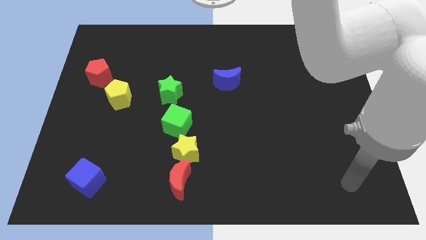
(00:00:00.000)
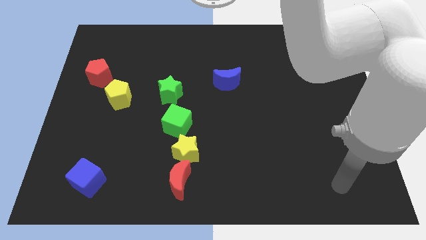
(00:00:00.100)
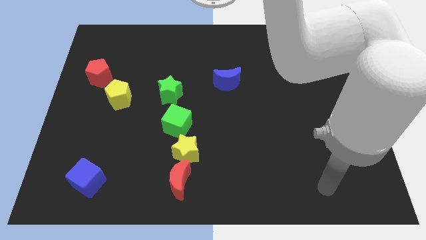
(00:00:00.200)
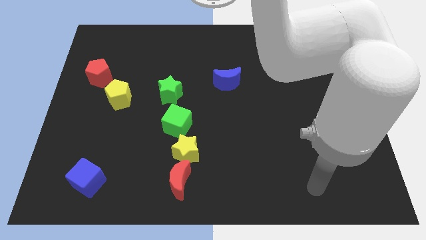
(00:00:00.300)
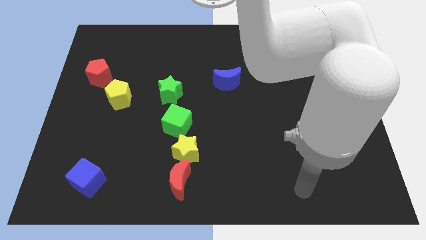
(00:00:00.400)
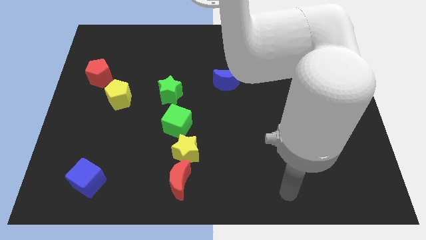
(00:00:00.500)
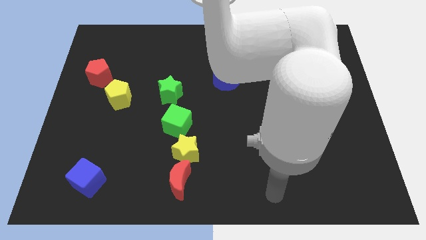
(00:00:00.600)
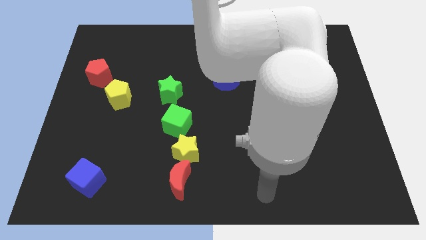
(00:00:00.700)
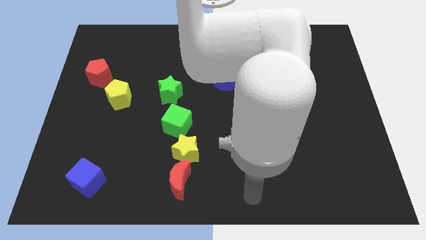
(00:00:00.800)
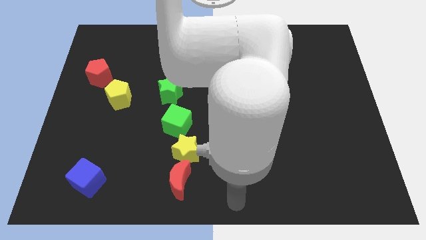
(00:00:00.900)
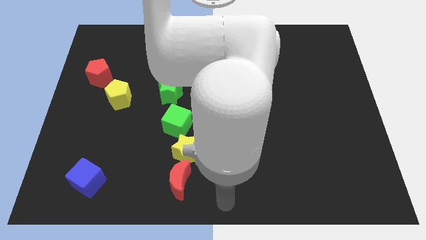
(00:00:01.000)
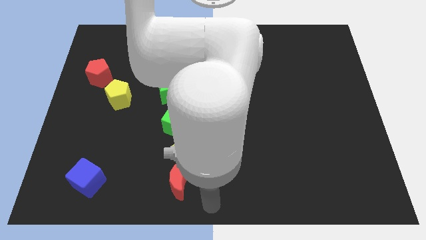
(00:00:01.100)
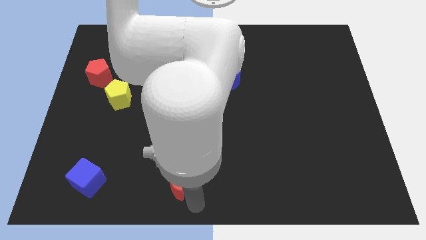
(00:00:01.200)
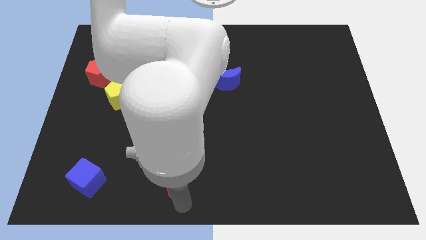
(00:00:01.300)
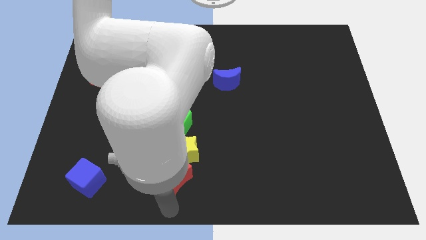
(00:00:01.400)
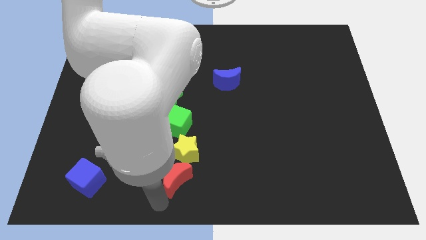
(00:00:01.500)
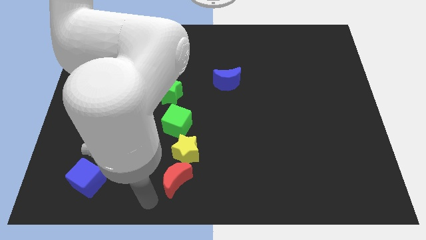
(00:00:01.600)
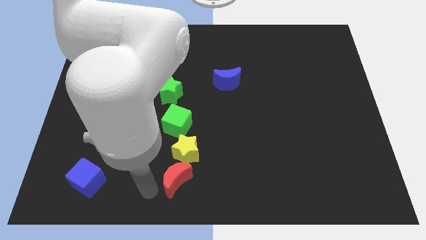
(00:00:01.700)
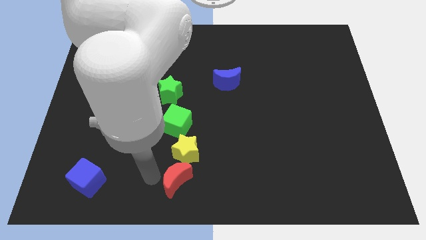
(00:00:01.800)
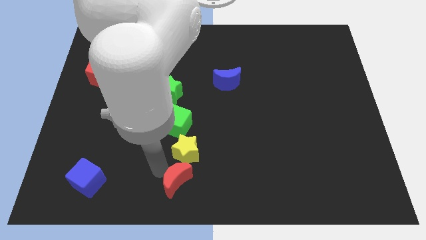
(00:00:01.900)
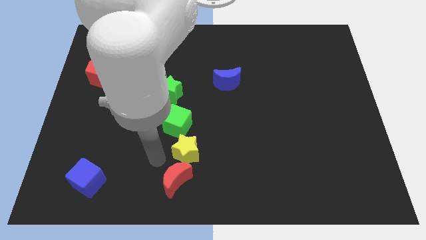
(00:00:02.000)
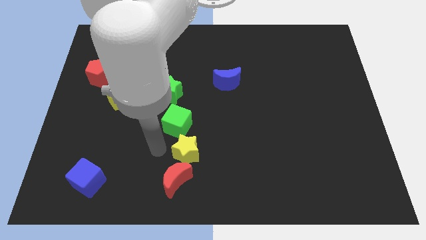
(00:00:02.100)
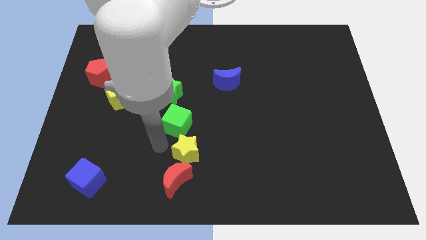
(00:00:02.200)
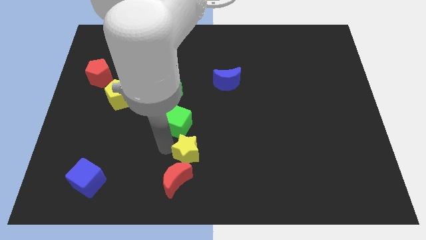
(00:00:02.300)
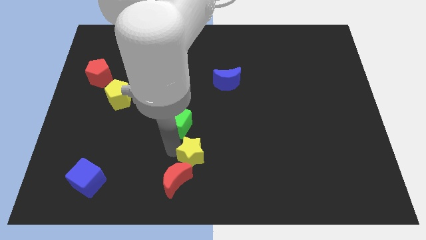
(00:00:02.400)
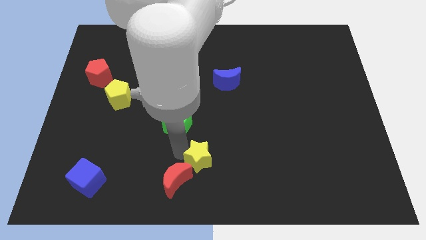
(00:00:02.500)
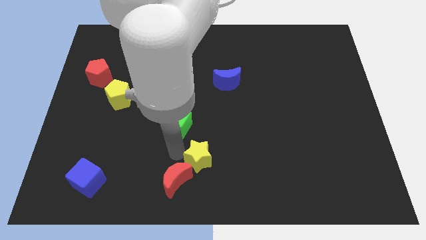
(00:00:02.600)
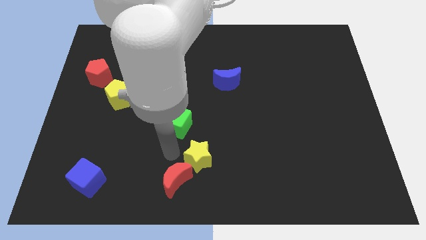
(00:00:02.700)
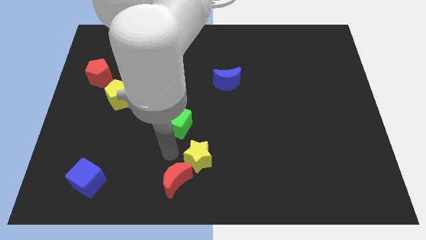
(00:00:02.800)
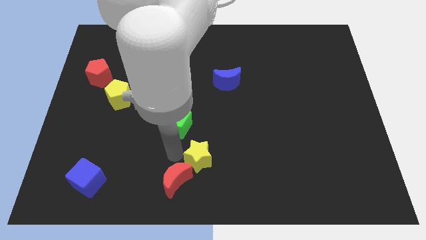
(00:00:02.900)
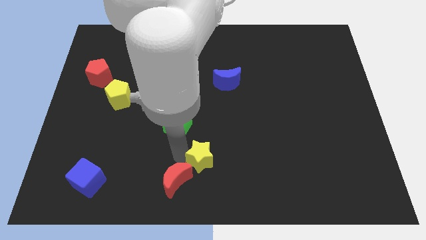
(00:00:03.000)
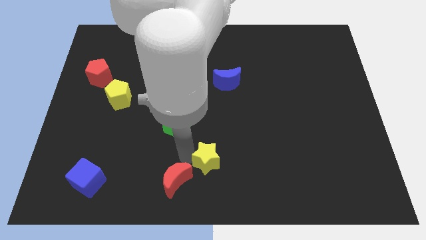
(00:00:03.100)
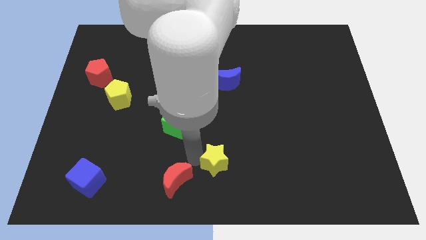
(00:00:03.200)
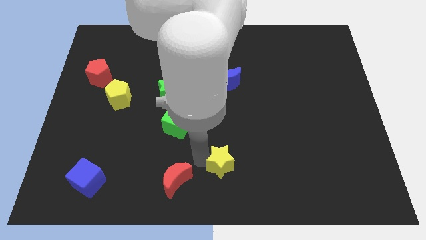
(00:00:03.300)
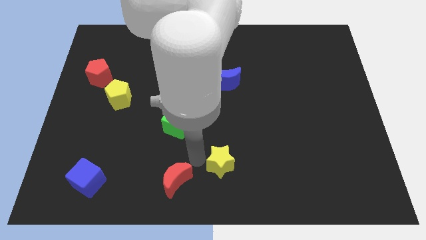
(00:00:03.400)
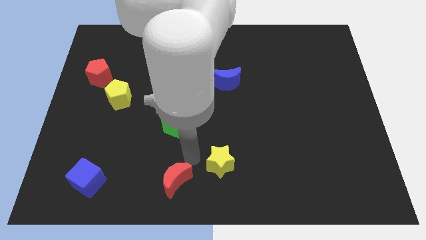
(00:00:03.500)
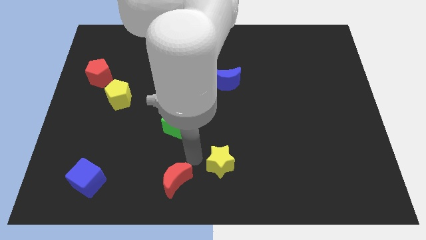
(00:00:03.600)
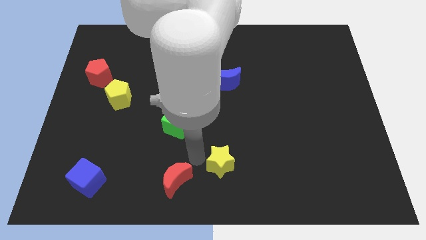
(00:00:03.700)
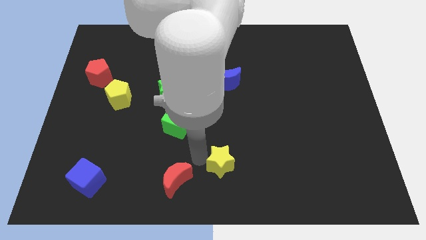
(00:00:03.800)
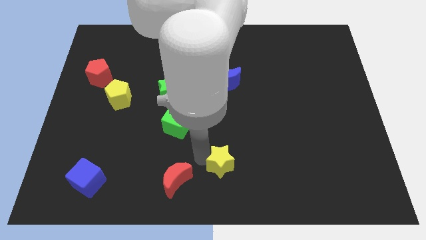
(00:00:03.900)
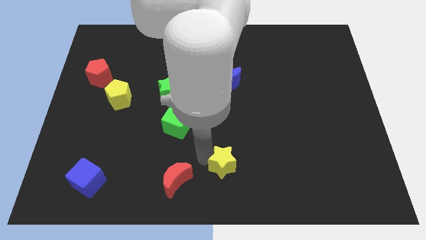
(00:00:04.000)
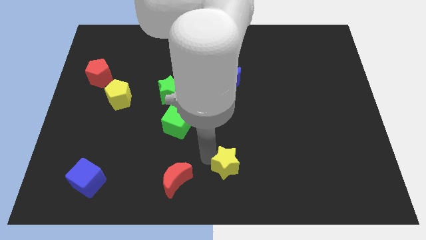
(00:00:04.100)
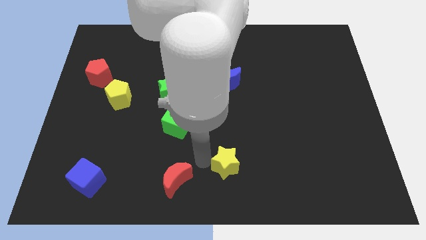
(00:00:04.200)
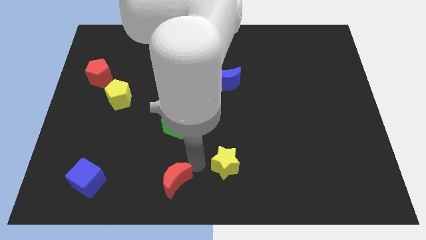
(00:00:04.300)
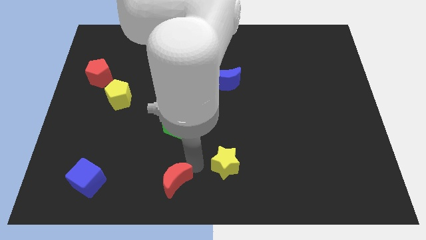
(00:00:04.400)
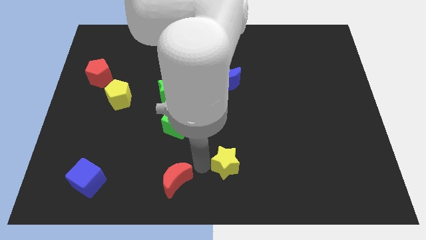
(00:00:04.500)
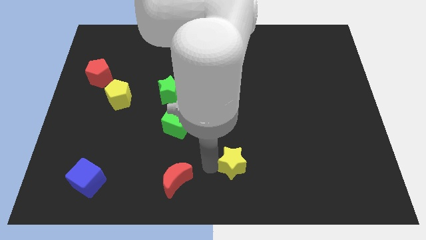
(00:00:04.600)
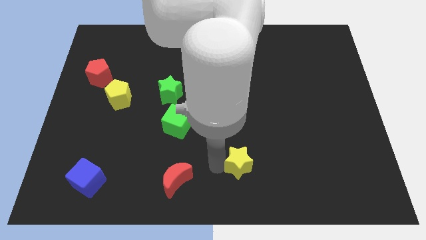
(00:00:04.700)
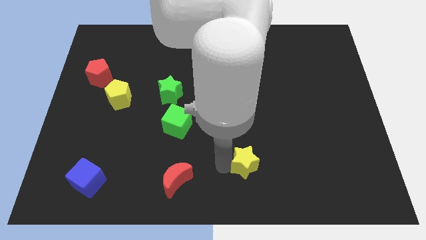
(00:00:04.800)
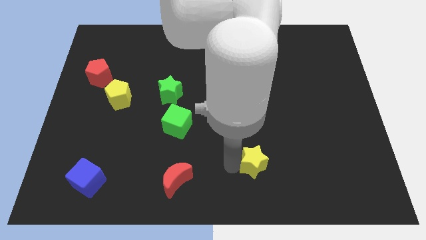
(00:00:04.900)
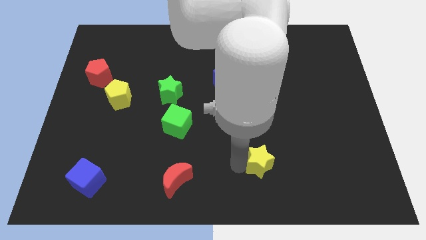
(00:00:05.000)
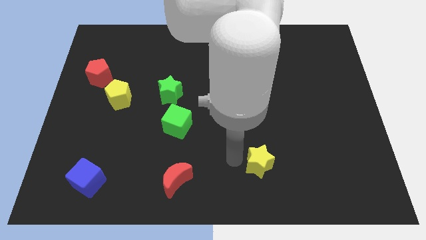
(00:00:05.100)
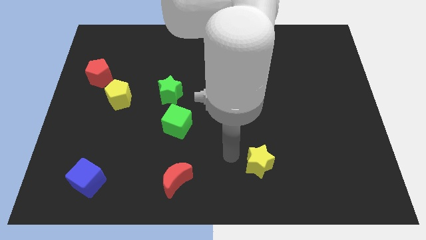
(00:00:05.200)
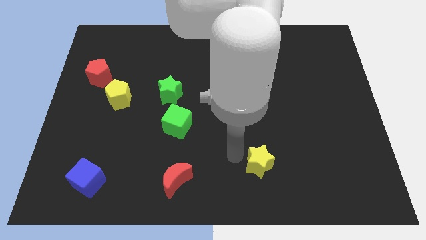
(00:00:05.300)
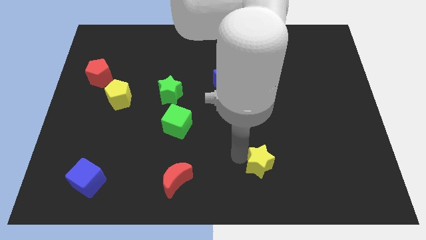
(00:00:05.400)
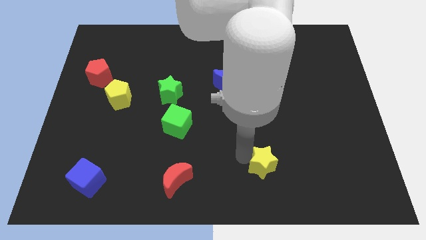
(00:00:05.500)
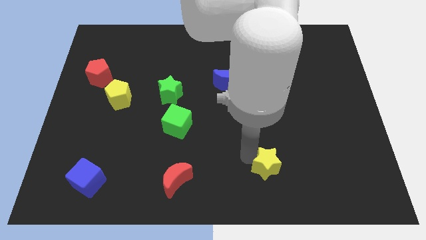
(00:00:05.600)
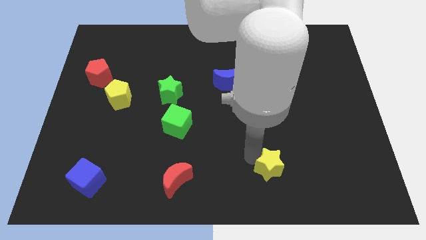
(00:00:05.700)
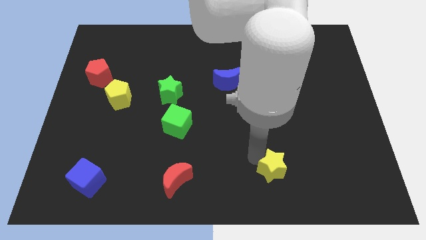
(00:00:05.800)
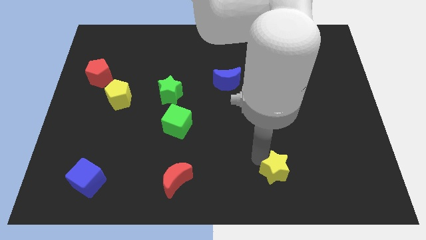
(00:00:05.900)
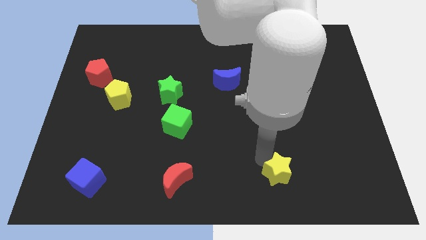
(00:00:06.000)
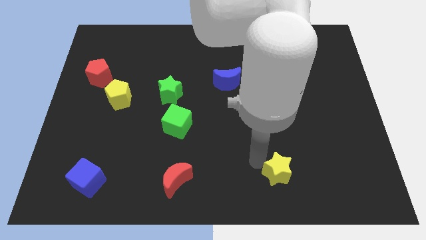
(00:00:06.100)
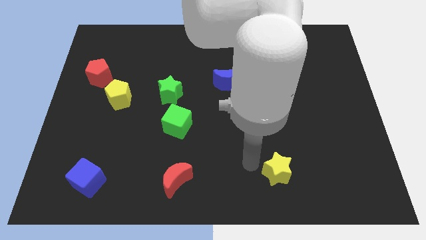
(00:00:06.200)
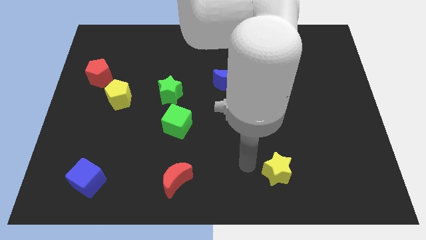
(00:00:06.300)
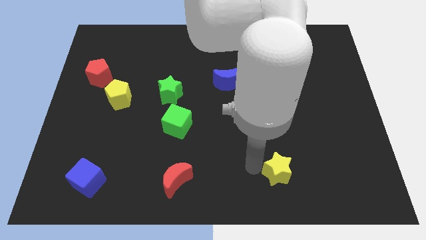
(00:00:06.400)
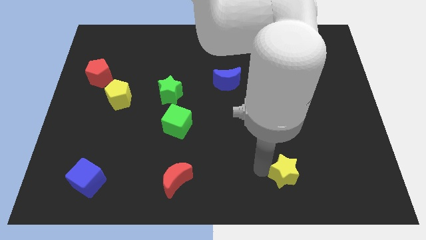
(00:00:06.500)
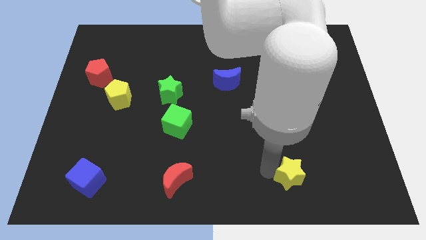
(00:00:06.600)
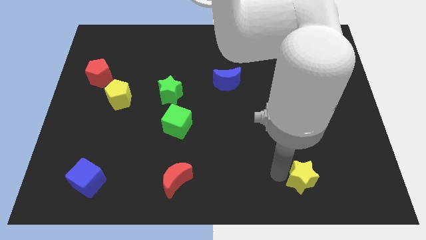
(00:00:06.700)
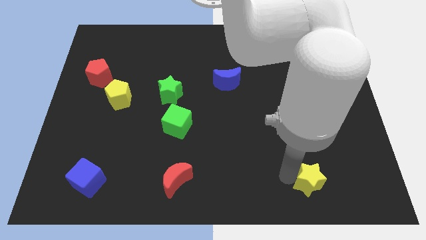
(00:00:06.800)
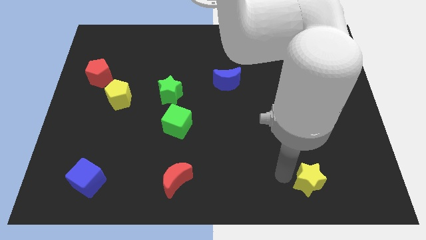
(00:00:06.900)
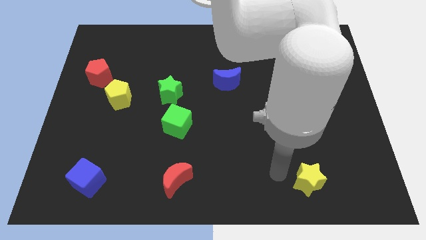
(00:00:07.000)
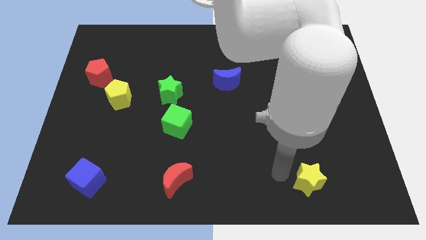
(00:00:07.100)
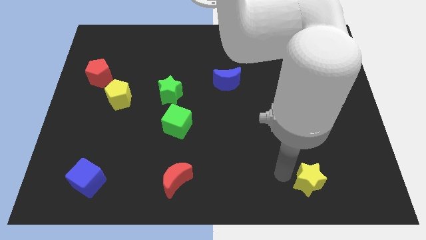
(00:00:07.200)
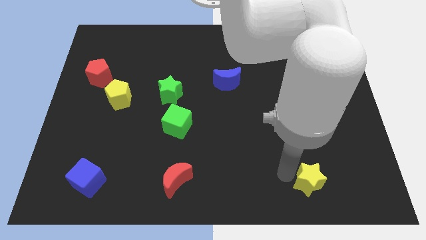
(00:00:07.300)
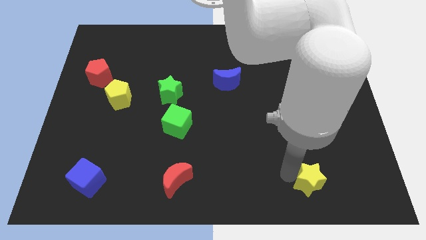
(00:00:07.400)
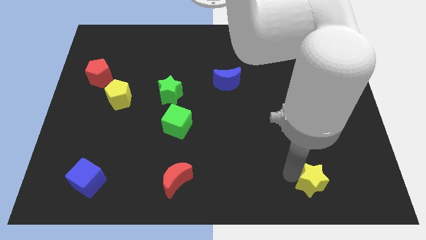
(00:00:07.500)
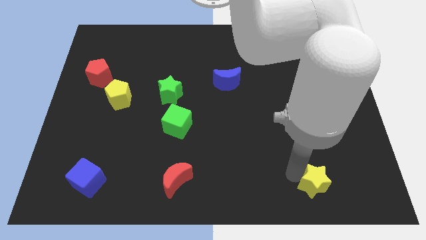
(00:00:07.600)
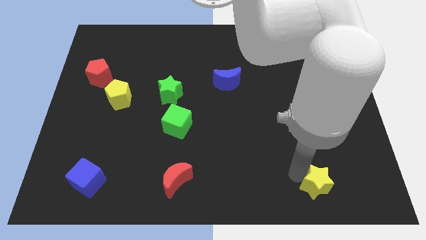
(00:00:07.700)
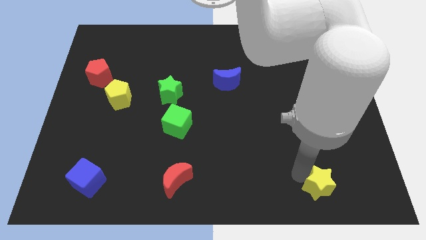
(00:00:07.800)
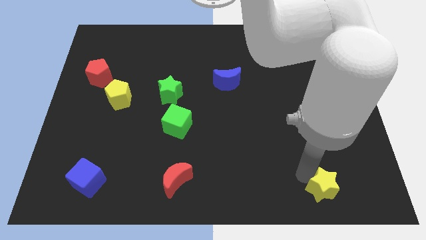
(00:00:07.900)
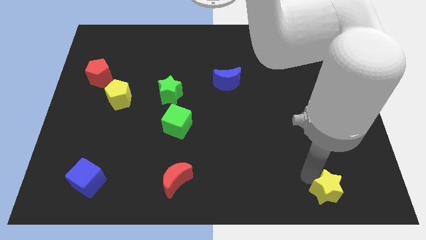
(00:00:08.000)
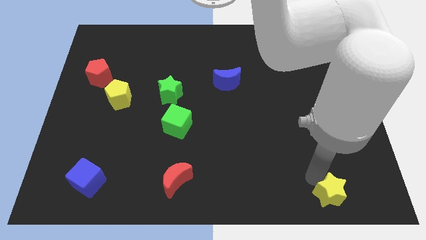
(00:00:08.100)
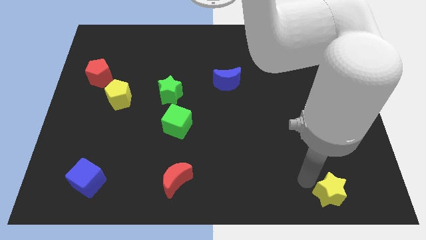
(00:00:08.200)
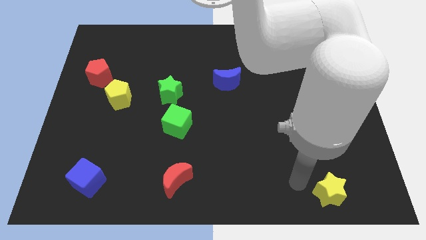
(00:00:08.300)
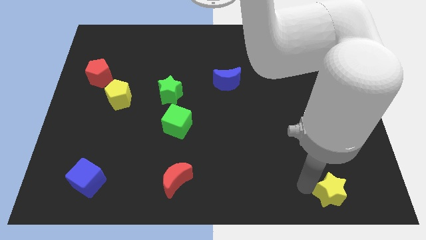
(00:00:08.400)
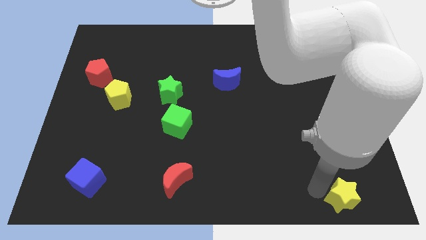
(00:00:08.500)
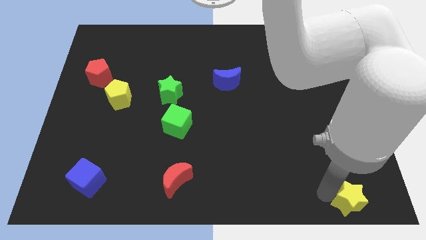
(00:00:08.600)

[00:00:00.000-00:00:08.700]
put the yellow star to the bottom right
